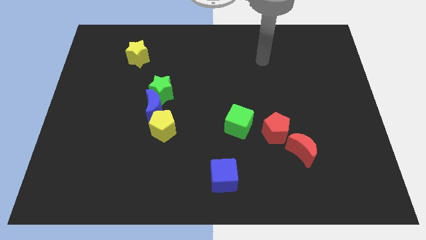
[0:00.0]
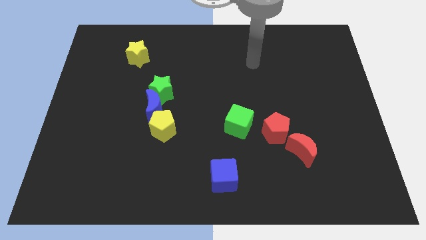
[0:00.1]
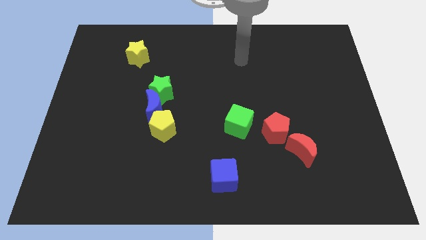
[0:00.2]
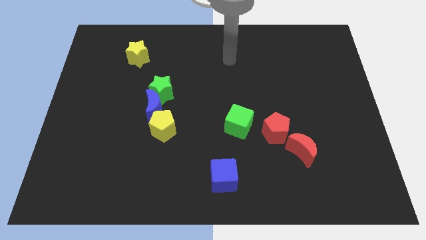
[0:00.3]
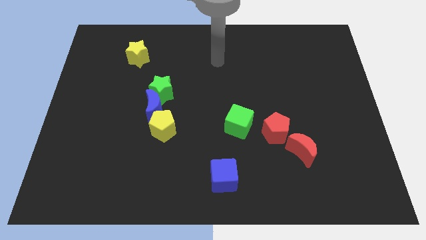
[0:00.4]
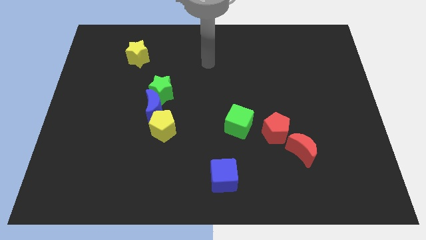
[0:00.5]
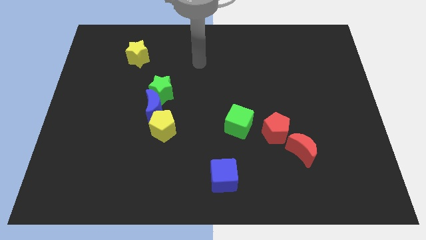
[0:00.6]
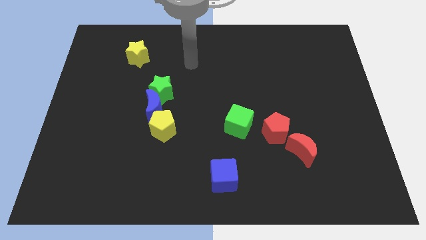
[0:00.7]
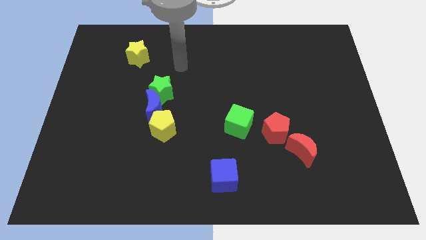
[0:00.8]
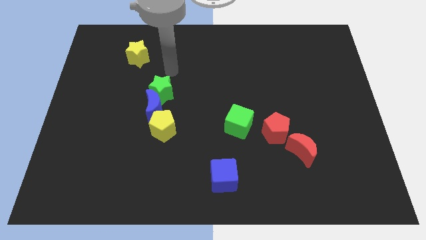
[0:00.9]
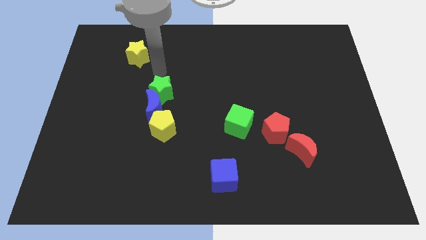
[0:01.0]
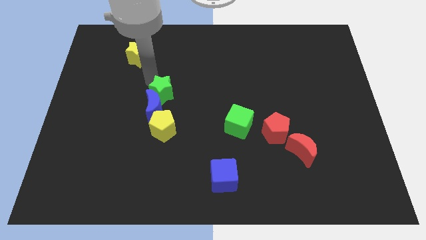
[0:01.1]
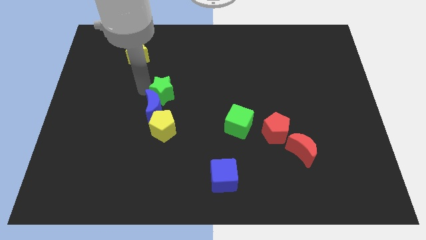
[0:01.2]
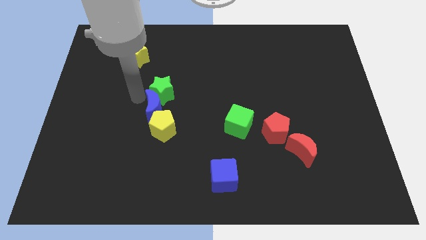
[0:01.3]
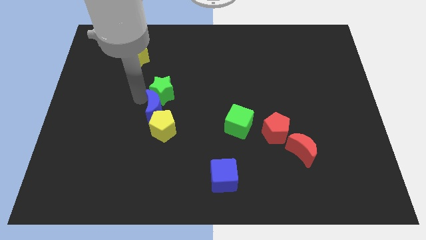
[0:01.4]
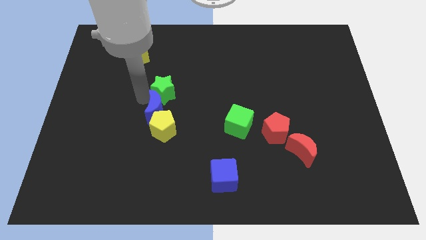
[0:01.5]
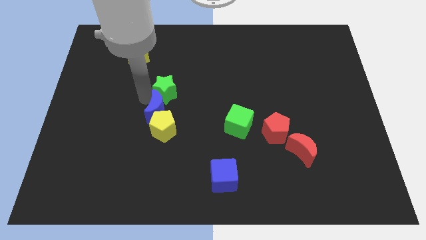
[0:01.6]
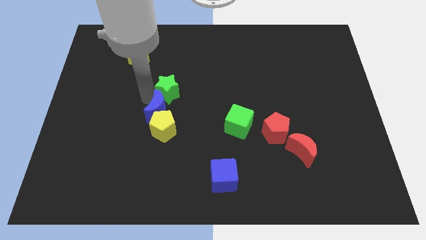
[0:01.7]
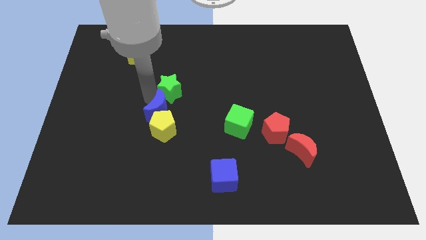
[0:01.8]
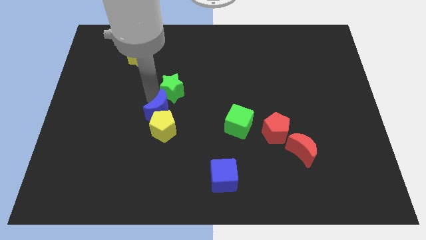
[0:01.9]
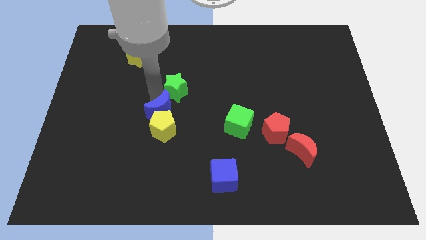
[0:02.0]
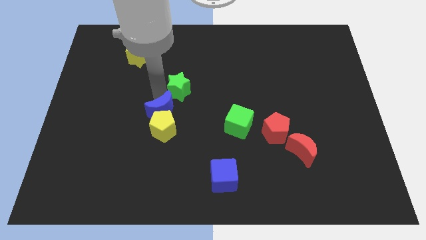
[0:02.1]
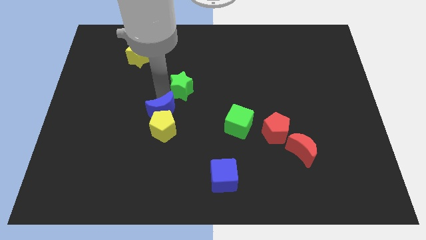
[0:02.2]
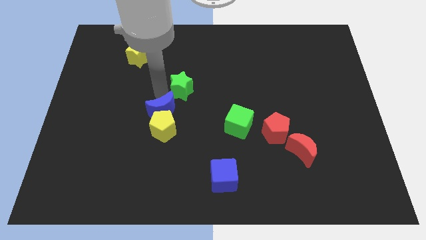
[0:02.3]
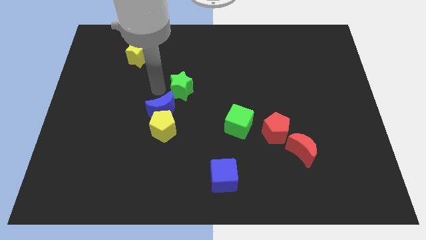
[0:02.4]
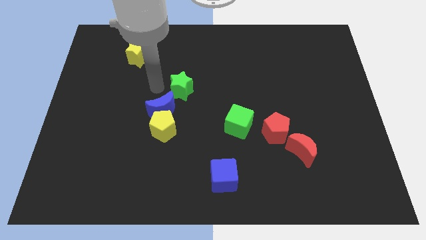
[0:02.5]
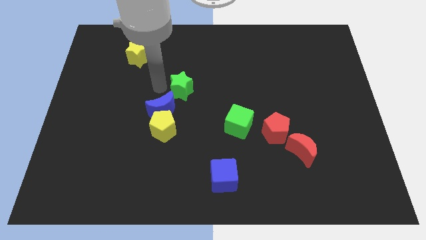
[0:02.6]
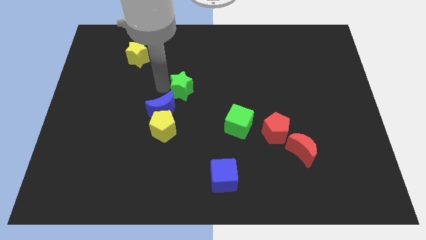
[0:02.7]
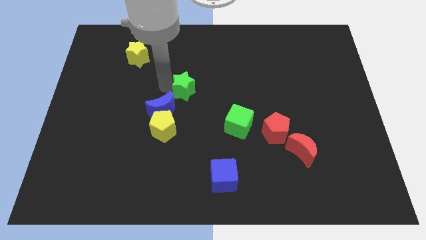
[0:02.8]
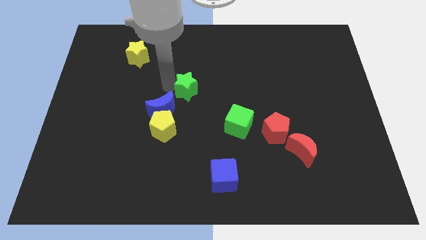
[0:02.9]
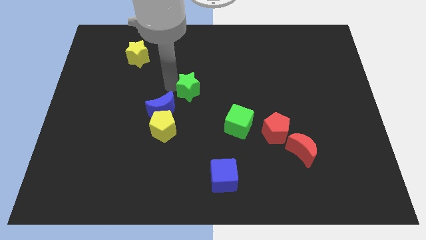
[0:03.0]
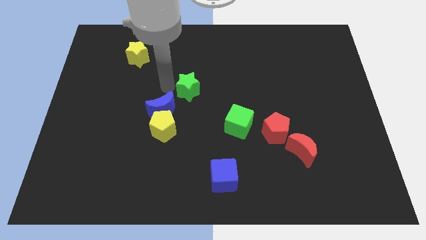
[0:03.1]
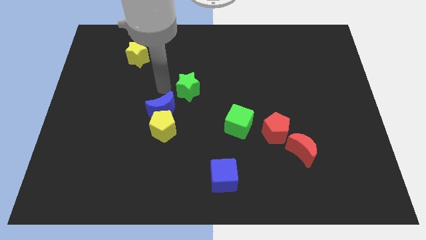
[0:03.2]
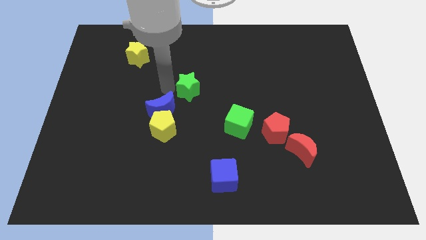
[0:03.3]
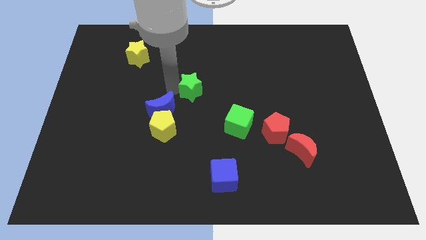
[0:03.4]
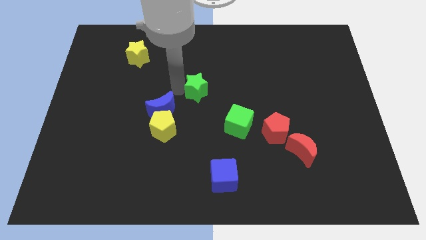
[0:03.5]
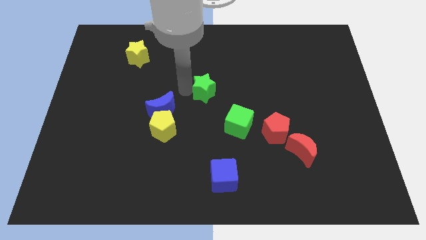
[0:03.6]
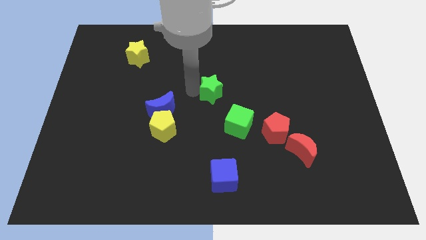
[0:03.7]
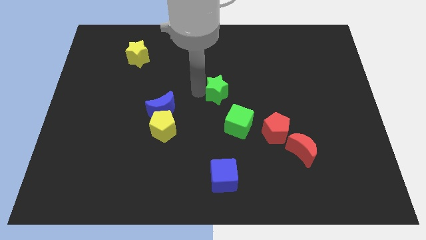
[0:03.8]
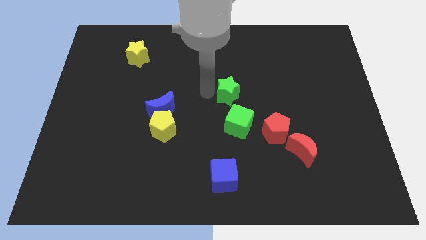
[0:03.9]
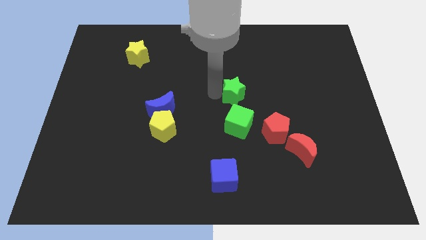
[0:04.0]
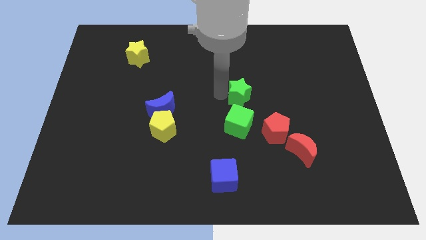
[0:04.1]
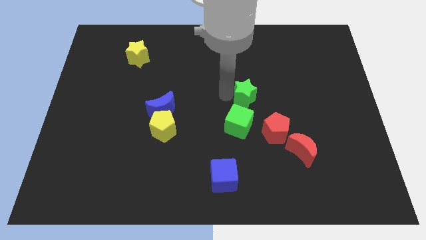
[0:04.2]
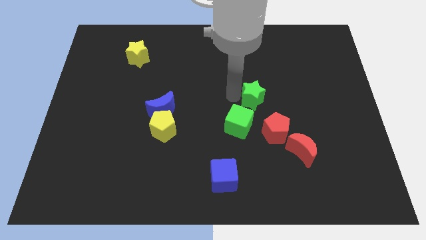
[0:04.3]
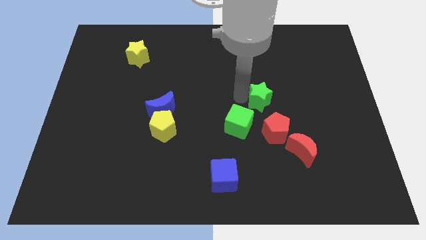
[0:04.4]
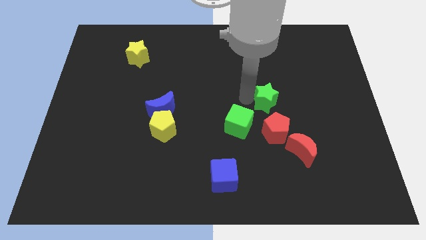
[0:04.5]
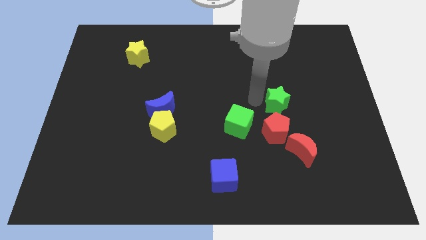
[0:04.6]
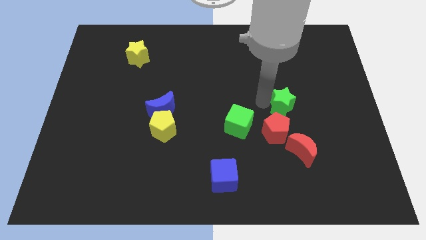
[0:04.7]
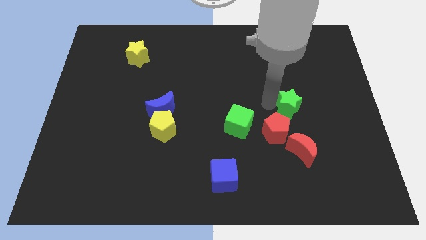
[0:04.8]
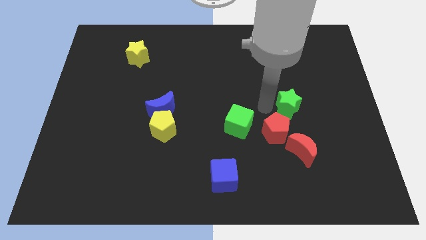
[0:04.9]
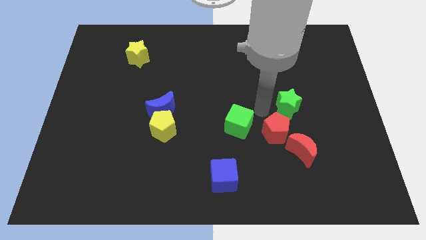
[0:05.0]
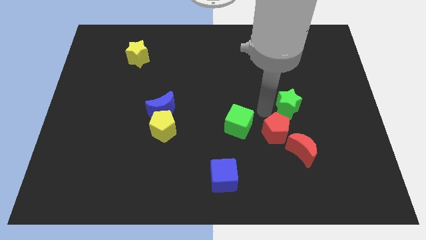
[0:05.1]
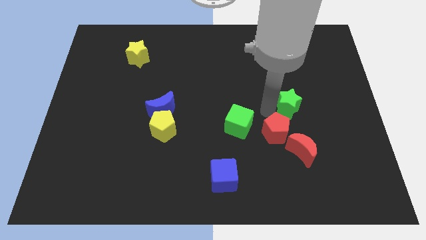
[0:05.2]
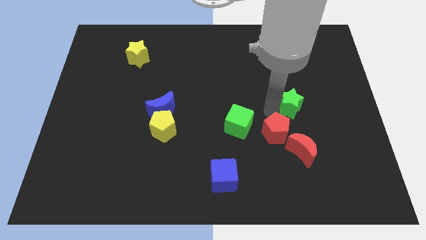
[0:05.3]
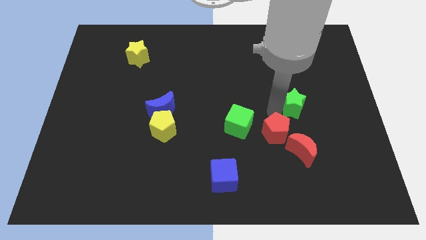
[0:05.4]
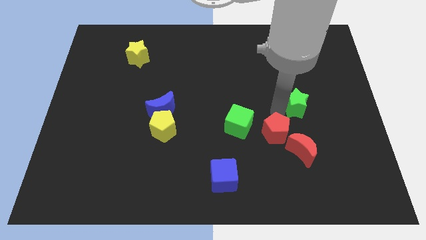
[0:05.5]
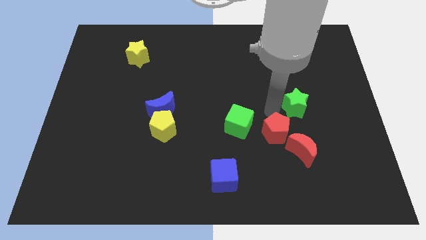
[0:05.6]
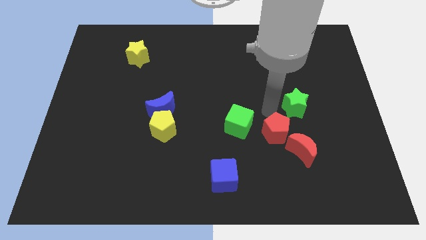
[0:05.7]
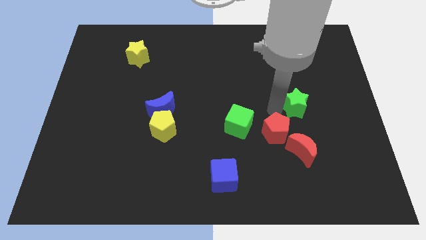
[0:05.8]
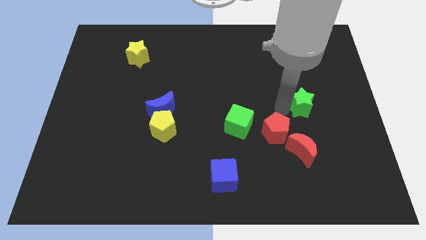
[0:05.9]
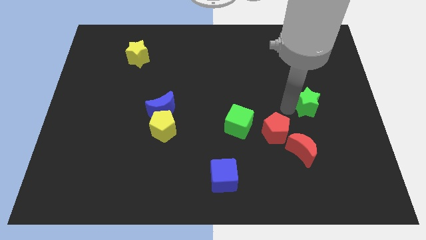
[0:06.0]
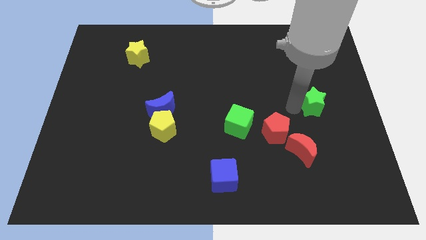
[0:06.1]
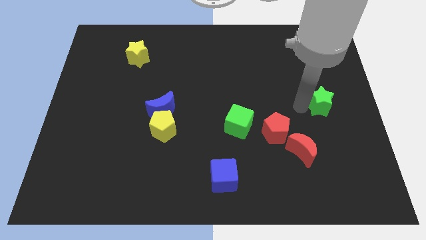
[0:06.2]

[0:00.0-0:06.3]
put the green star to the right side

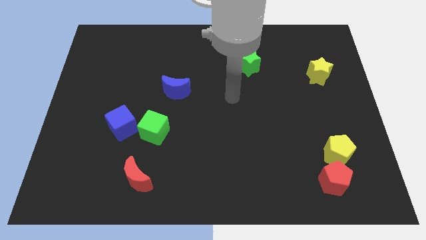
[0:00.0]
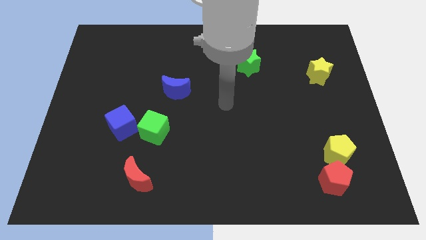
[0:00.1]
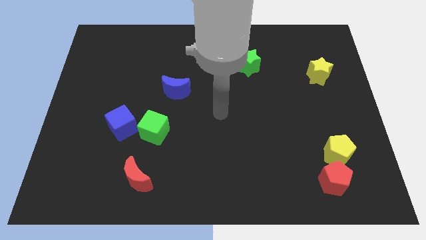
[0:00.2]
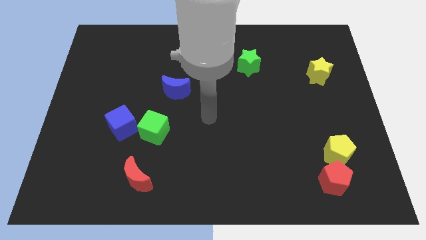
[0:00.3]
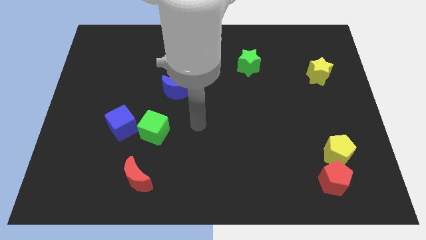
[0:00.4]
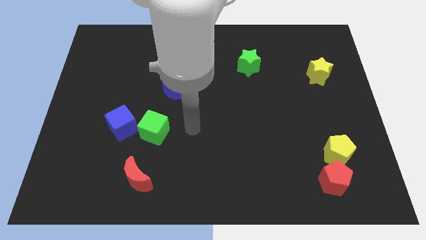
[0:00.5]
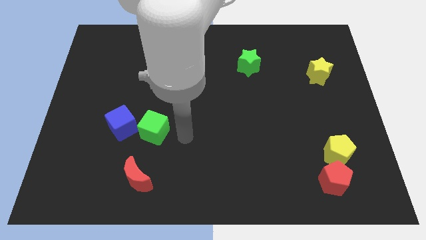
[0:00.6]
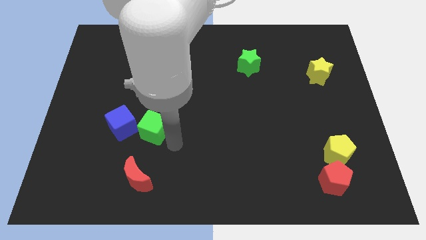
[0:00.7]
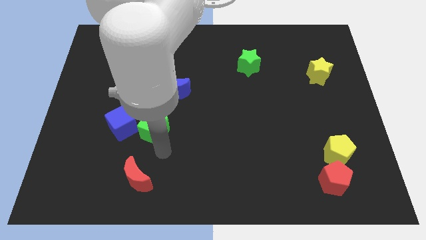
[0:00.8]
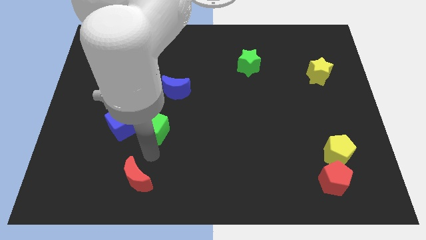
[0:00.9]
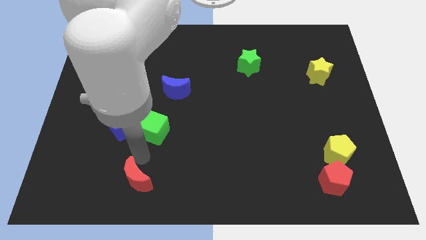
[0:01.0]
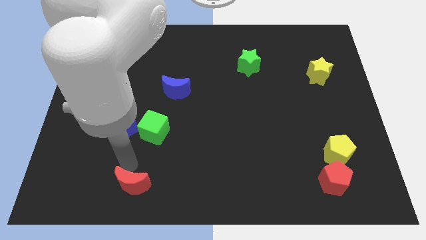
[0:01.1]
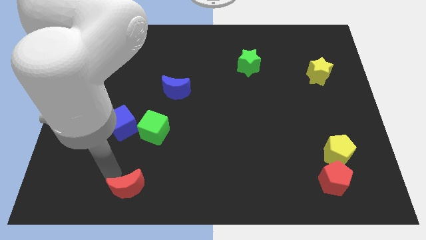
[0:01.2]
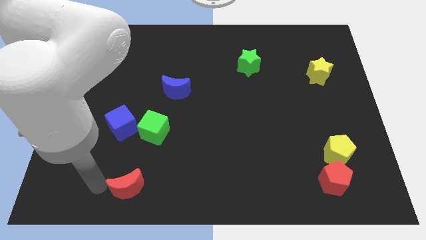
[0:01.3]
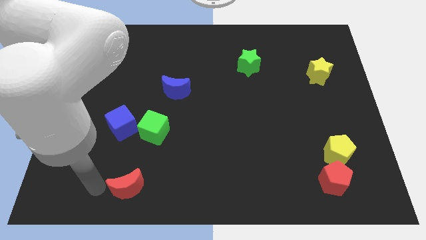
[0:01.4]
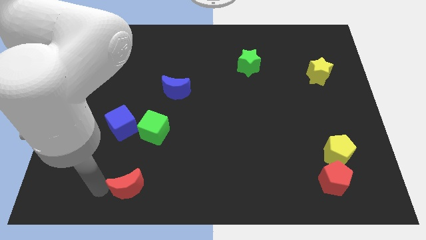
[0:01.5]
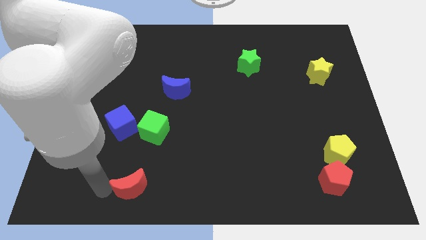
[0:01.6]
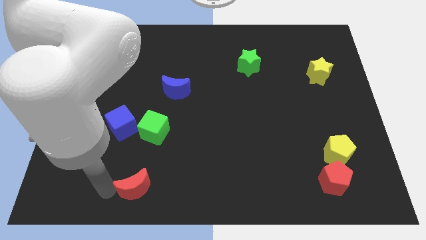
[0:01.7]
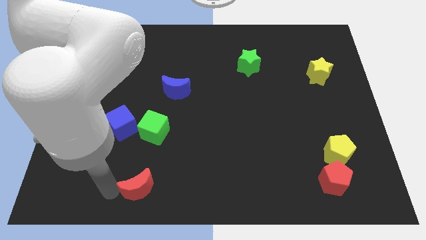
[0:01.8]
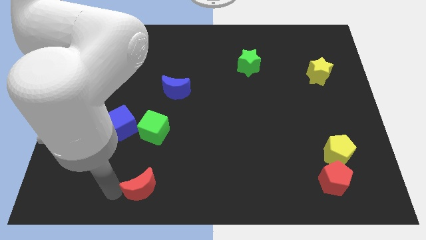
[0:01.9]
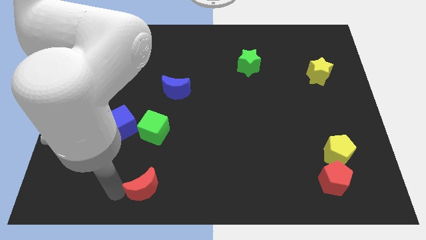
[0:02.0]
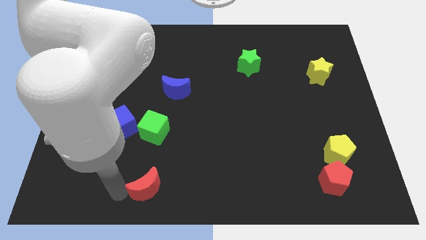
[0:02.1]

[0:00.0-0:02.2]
move the red moon to the bottom
